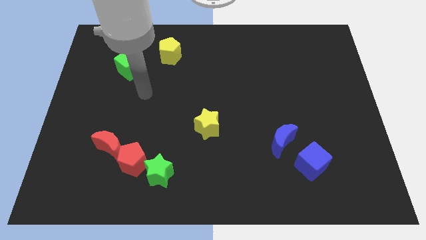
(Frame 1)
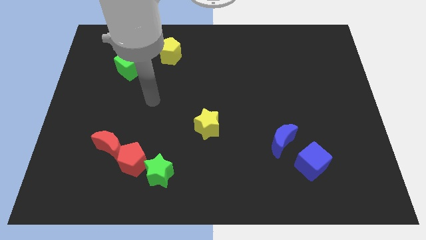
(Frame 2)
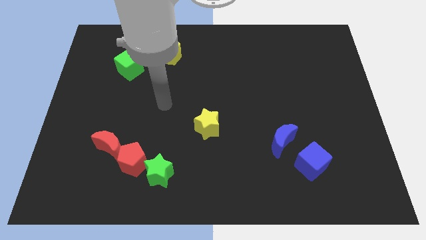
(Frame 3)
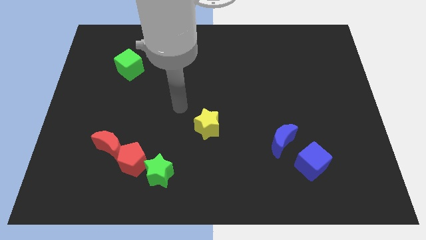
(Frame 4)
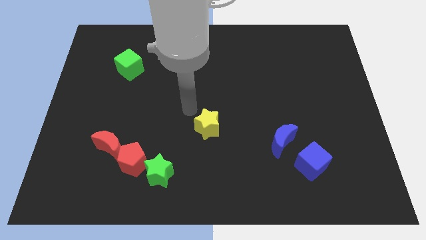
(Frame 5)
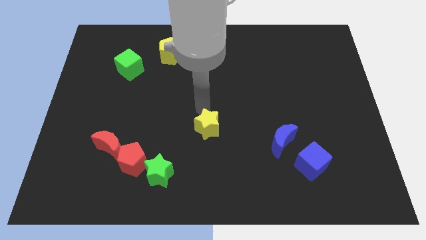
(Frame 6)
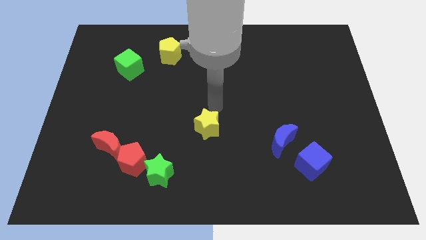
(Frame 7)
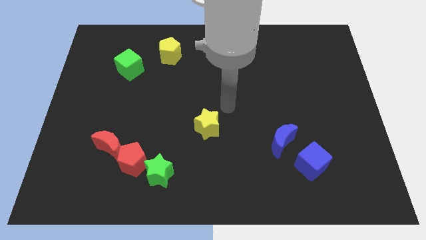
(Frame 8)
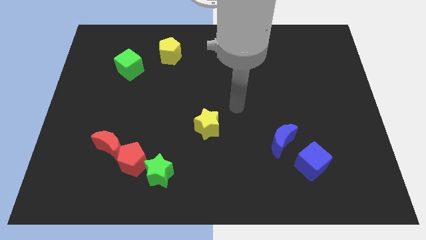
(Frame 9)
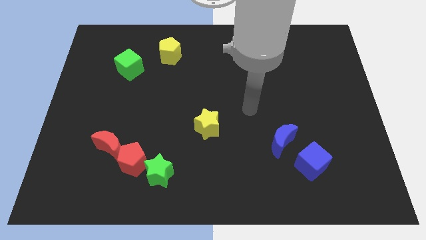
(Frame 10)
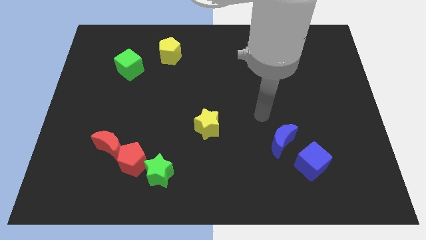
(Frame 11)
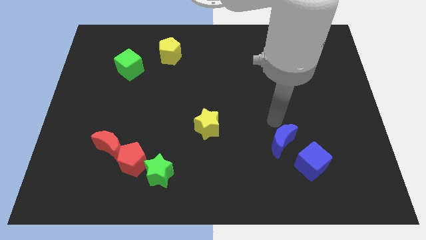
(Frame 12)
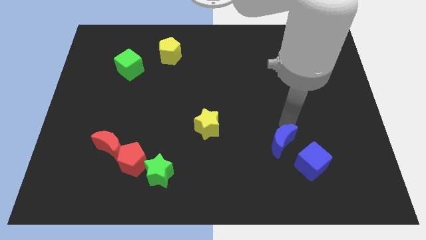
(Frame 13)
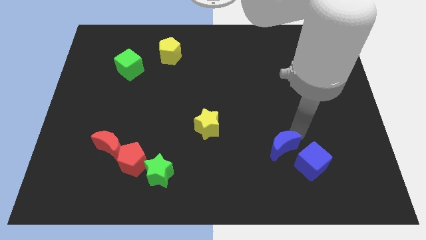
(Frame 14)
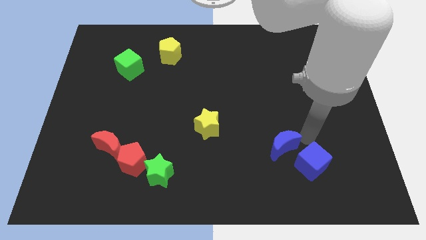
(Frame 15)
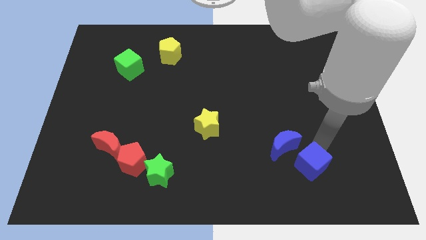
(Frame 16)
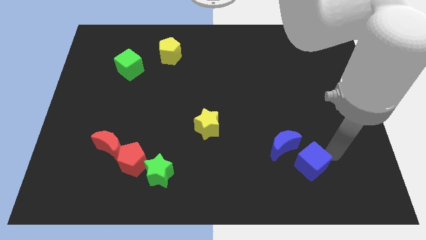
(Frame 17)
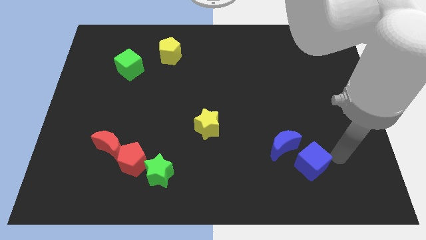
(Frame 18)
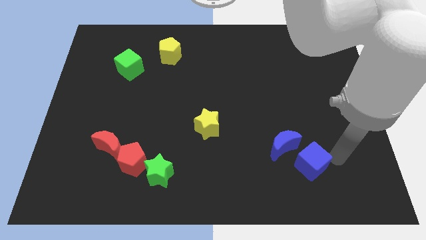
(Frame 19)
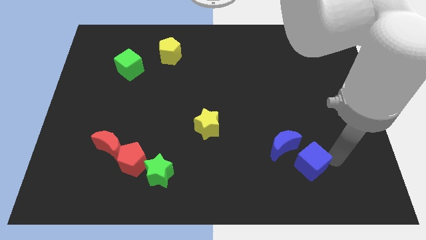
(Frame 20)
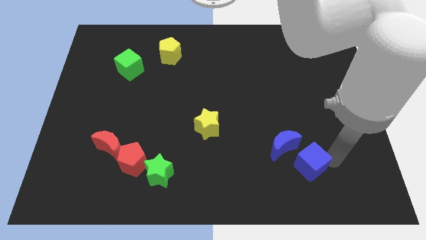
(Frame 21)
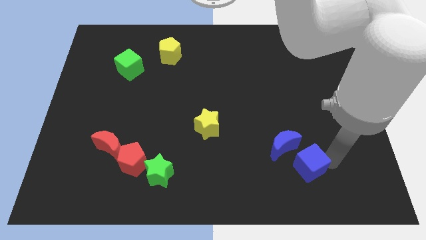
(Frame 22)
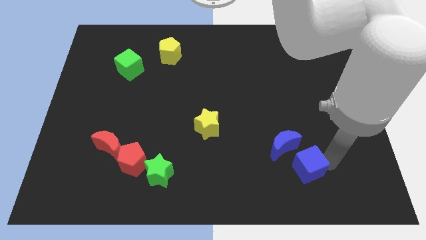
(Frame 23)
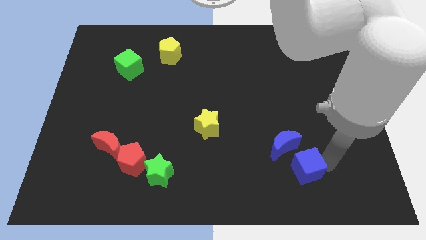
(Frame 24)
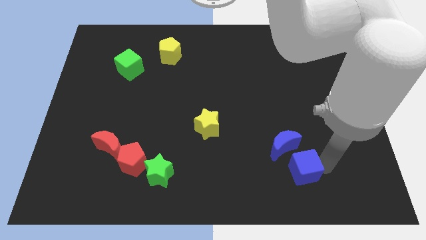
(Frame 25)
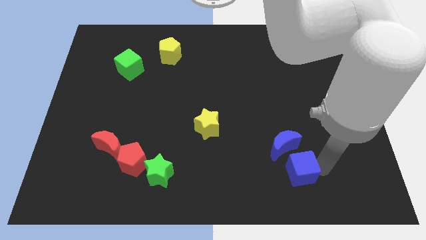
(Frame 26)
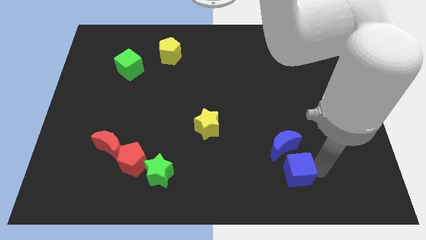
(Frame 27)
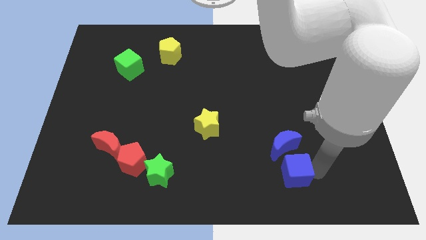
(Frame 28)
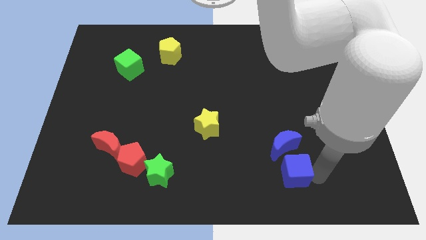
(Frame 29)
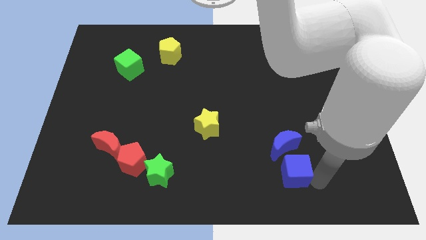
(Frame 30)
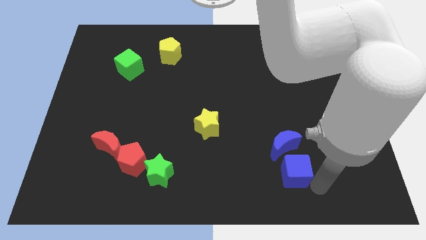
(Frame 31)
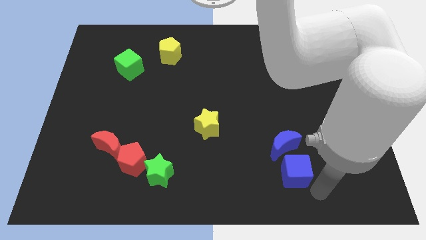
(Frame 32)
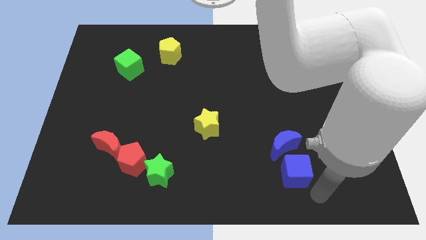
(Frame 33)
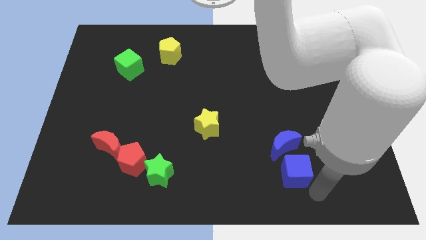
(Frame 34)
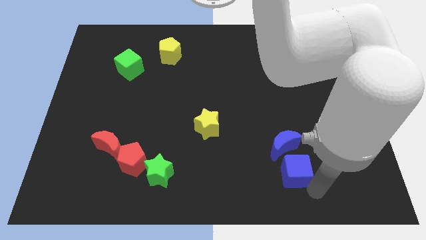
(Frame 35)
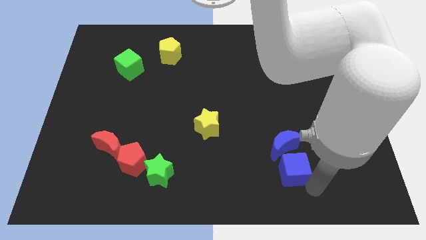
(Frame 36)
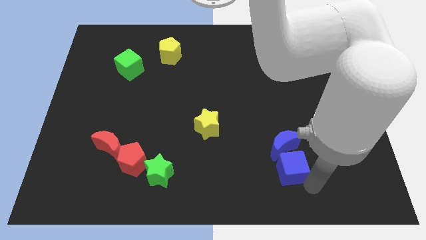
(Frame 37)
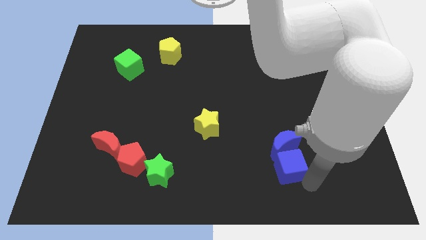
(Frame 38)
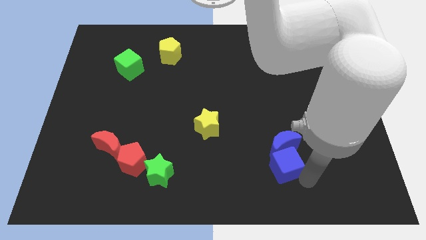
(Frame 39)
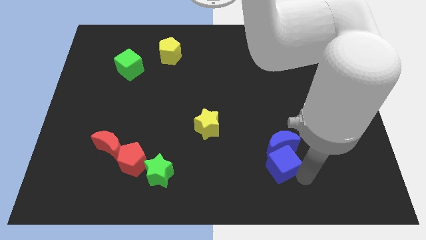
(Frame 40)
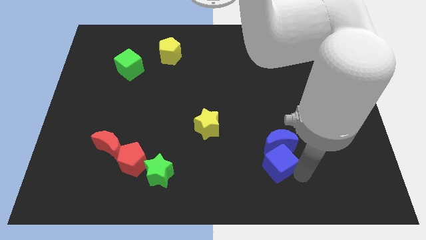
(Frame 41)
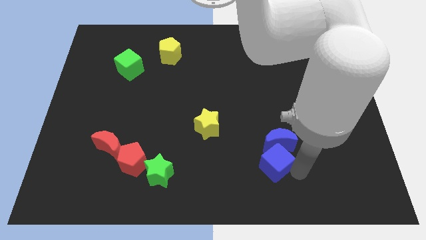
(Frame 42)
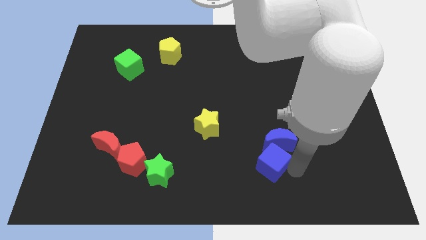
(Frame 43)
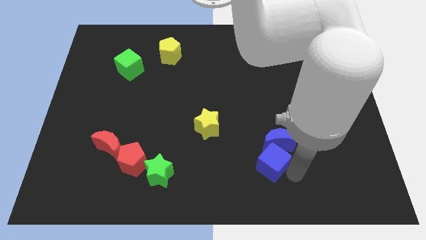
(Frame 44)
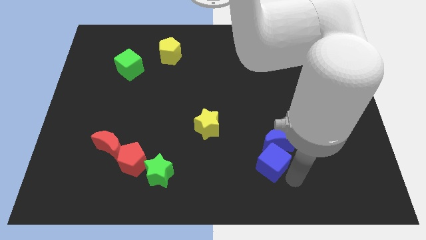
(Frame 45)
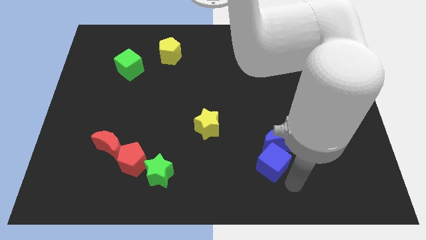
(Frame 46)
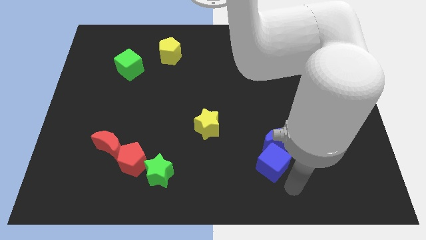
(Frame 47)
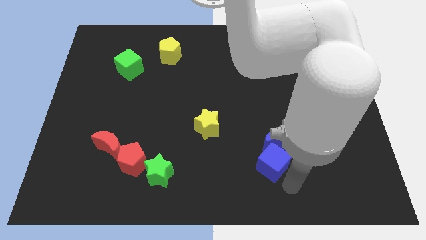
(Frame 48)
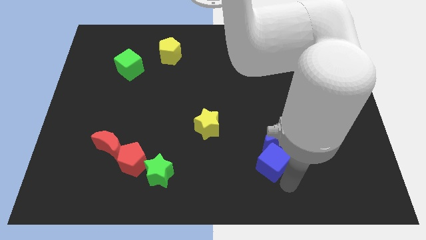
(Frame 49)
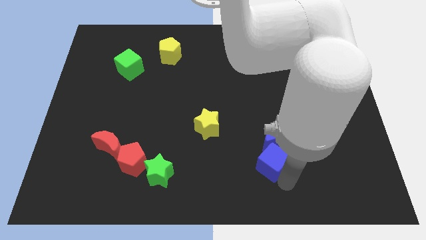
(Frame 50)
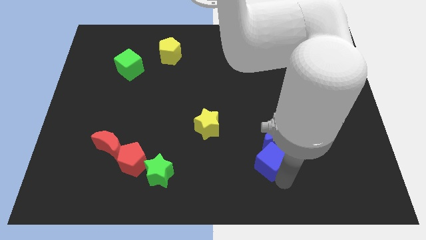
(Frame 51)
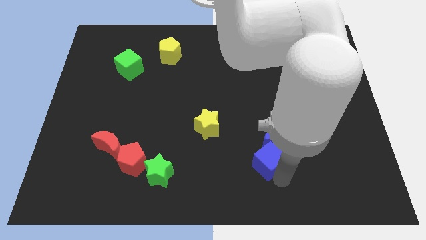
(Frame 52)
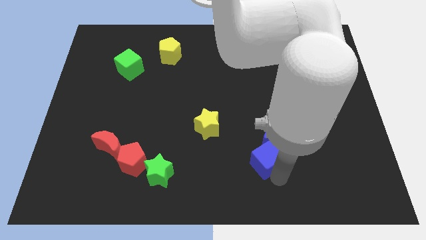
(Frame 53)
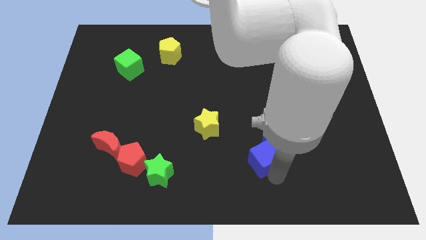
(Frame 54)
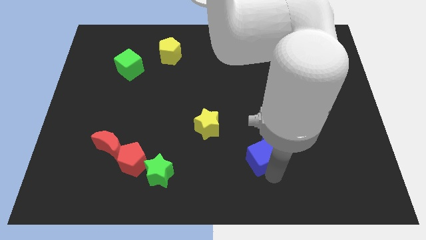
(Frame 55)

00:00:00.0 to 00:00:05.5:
slide the blue cube just left of the blue moon

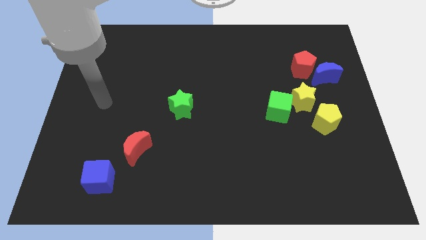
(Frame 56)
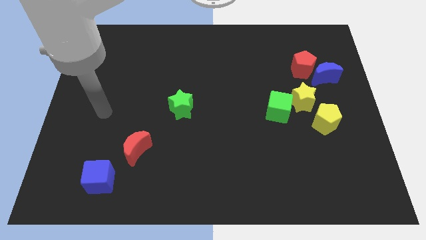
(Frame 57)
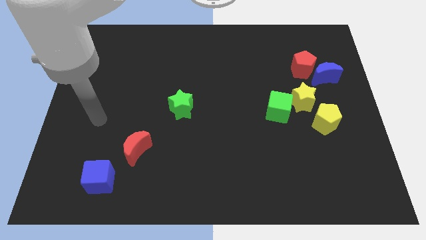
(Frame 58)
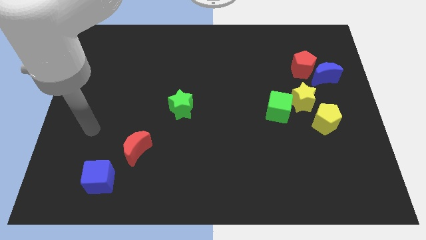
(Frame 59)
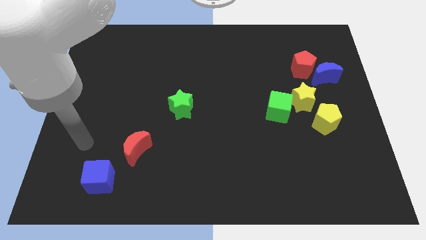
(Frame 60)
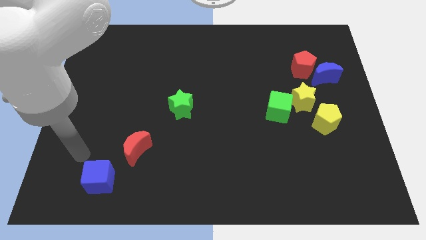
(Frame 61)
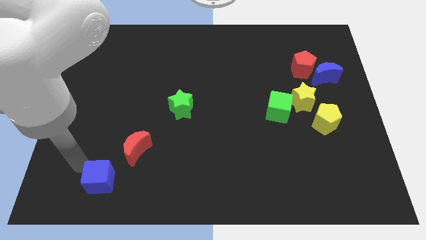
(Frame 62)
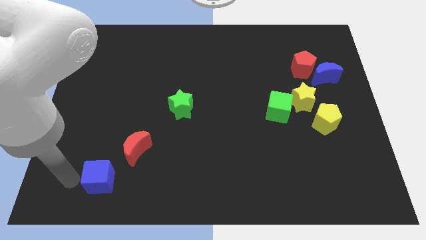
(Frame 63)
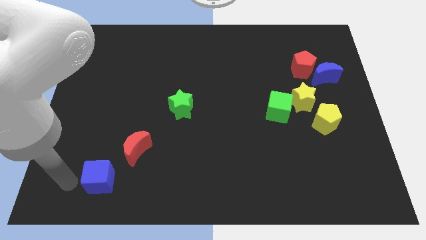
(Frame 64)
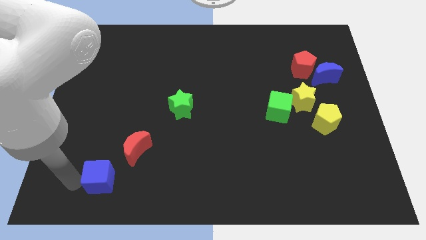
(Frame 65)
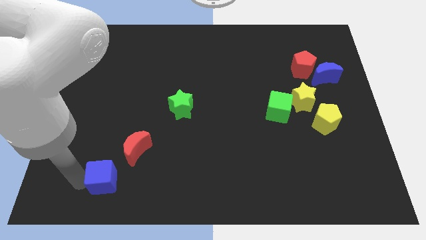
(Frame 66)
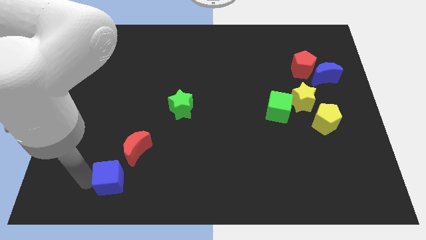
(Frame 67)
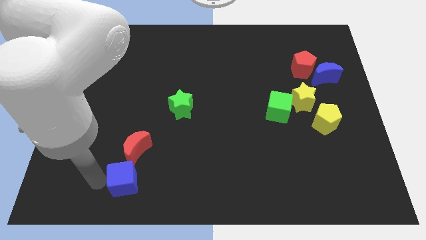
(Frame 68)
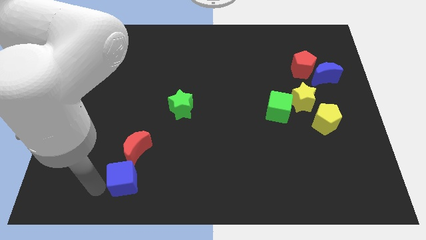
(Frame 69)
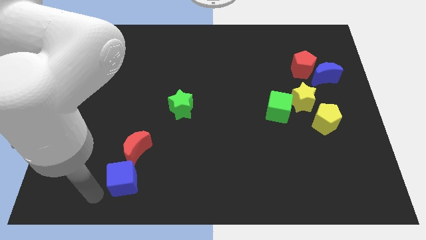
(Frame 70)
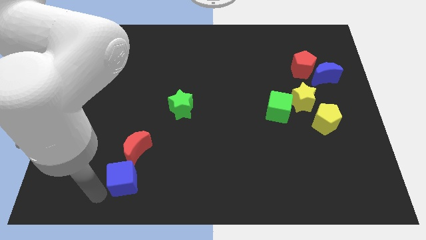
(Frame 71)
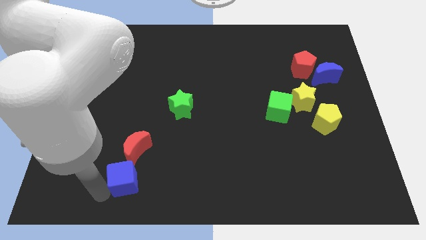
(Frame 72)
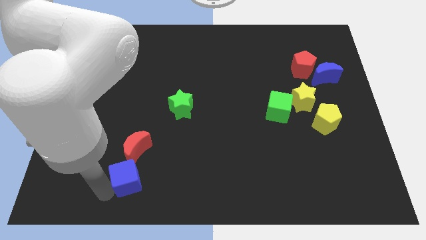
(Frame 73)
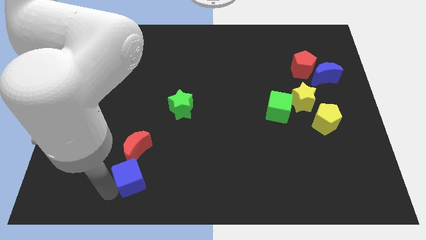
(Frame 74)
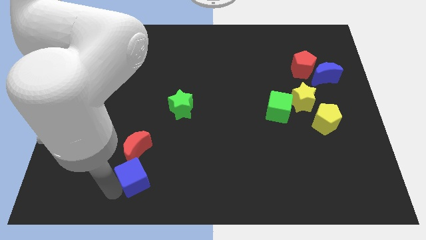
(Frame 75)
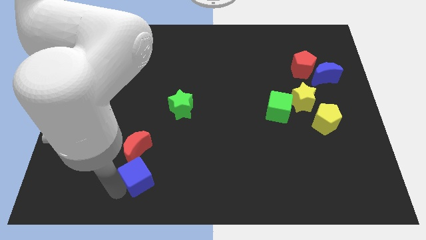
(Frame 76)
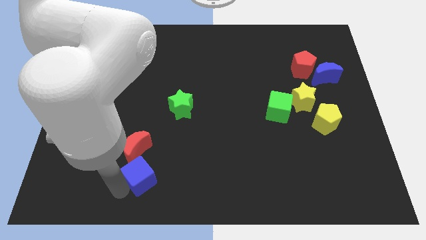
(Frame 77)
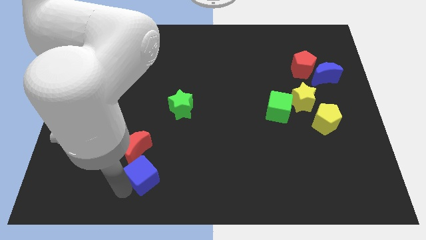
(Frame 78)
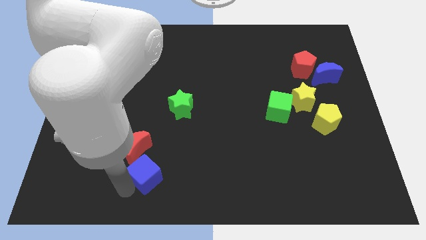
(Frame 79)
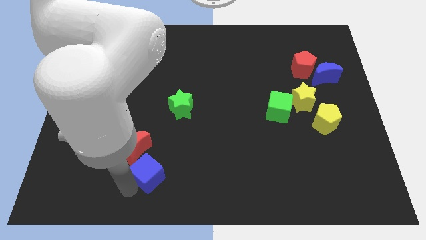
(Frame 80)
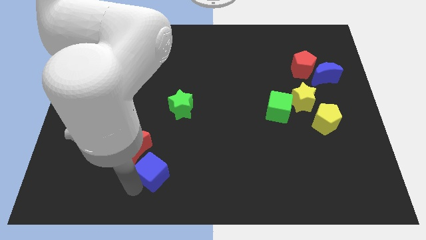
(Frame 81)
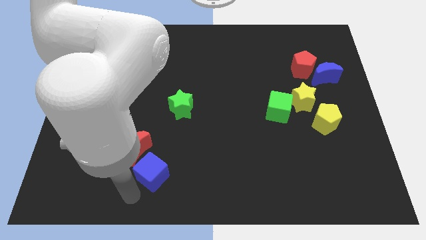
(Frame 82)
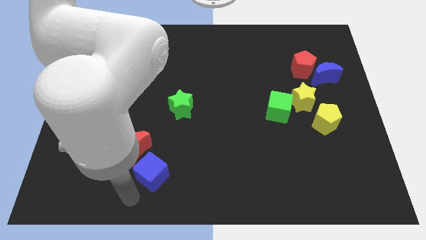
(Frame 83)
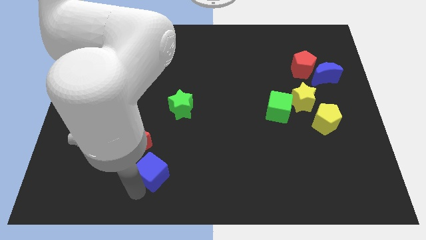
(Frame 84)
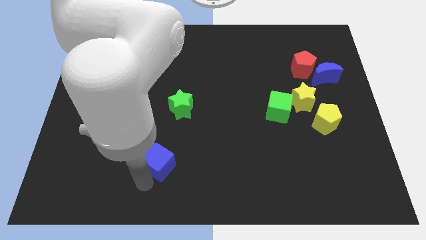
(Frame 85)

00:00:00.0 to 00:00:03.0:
push the blue cube below the green star
